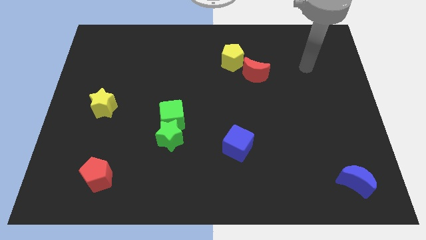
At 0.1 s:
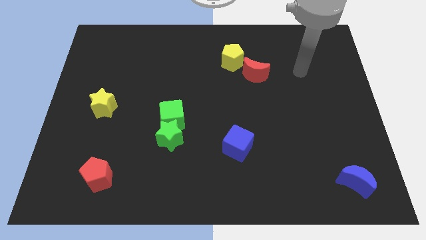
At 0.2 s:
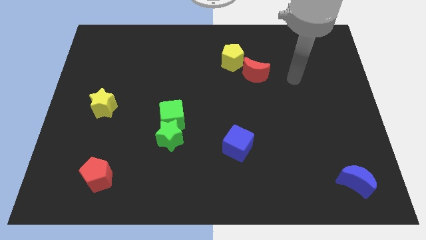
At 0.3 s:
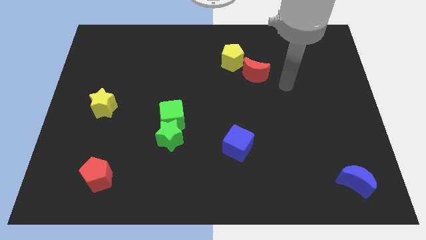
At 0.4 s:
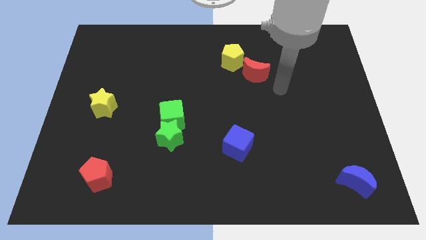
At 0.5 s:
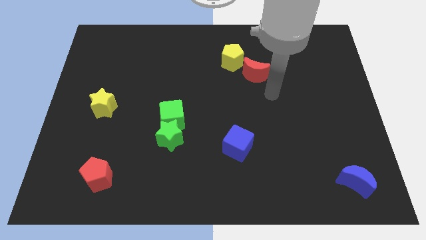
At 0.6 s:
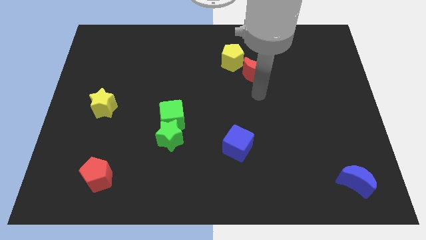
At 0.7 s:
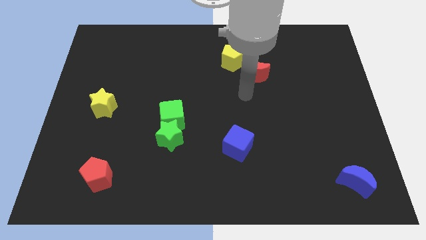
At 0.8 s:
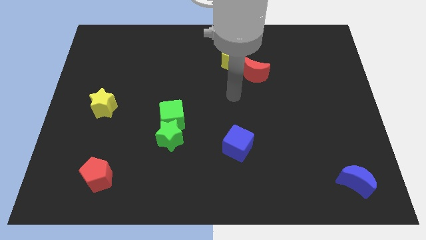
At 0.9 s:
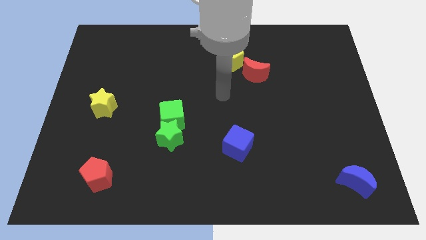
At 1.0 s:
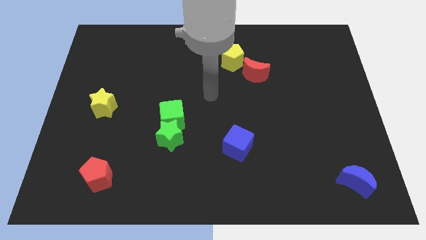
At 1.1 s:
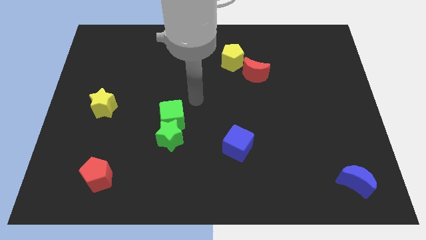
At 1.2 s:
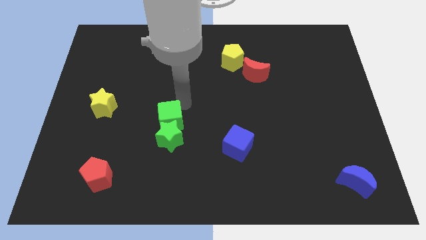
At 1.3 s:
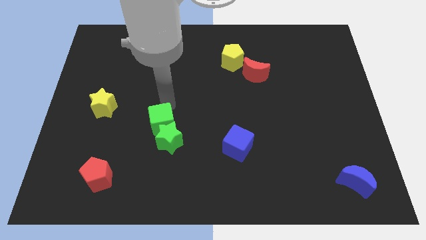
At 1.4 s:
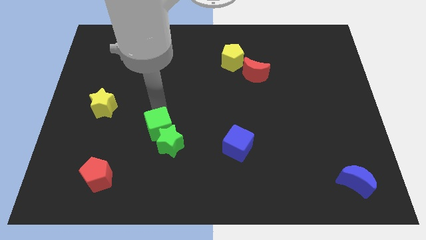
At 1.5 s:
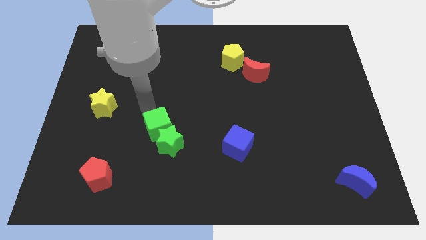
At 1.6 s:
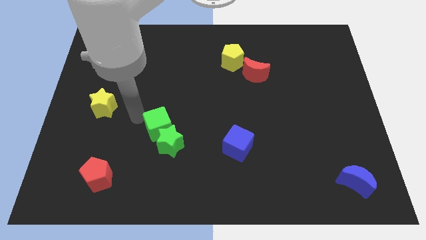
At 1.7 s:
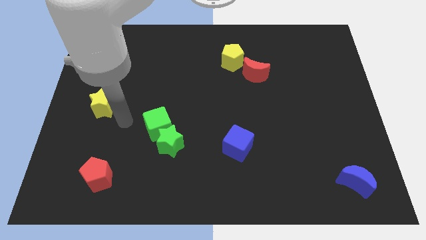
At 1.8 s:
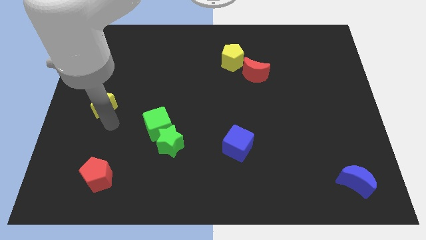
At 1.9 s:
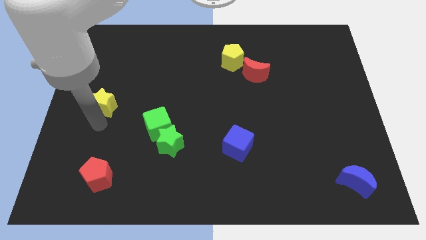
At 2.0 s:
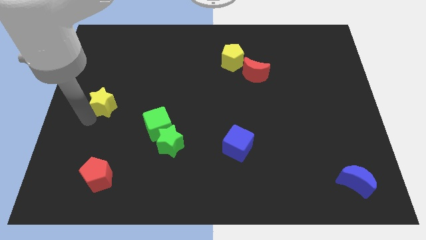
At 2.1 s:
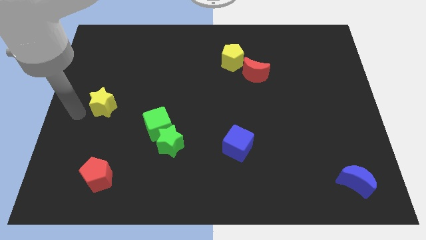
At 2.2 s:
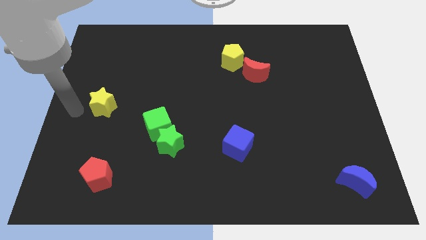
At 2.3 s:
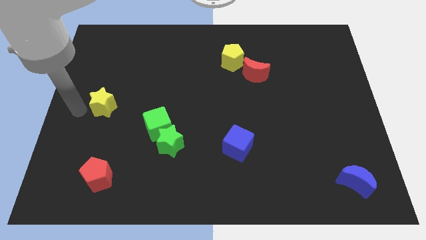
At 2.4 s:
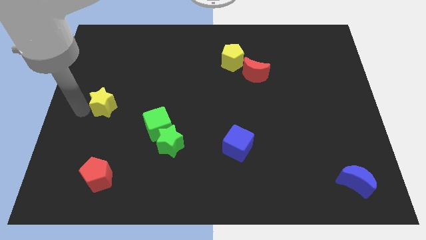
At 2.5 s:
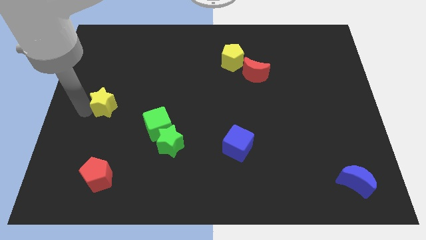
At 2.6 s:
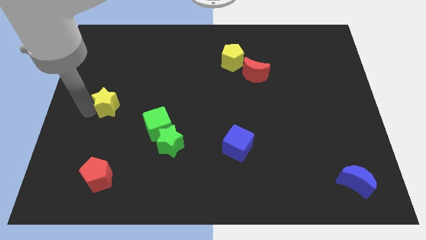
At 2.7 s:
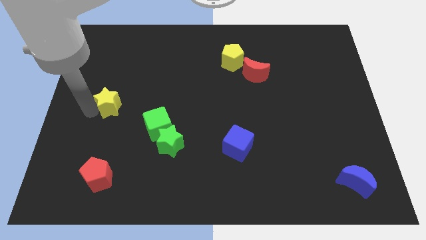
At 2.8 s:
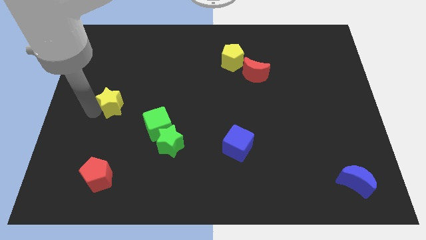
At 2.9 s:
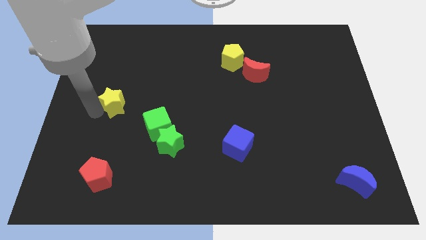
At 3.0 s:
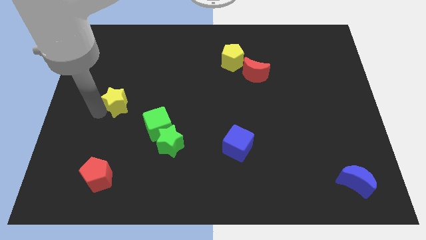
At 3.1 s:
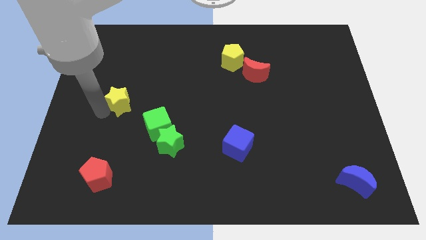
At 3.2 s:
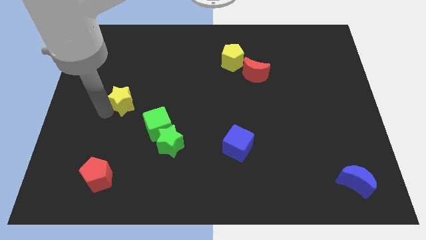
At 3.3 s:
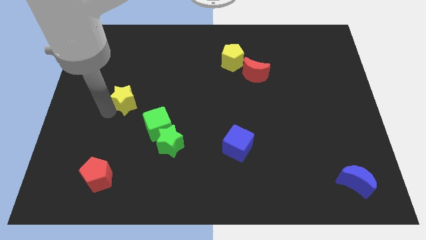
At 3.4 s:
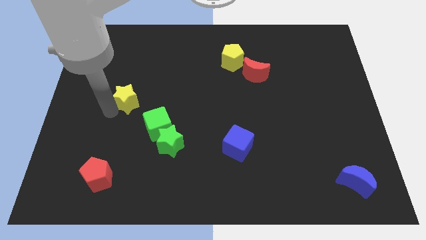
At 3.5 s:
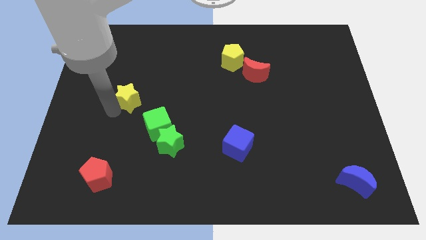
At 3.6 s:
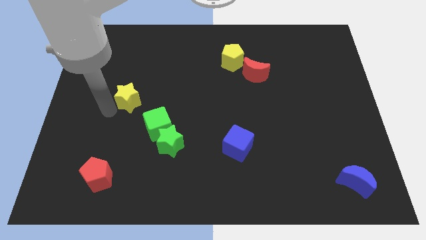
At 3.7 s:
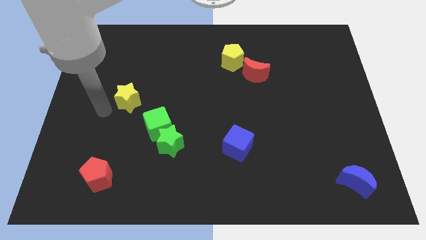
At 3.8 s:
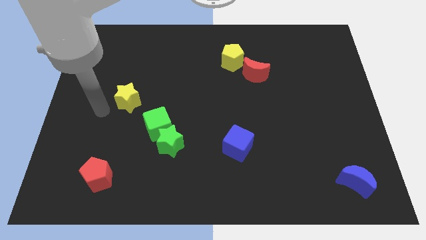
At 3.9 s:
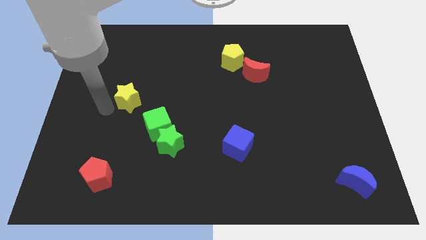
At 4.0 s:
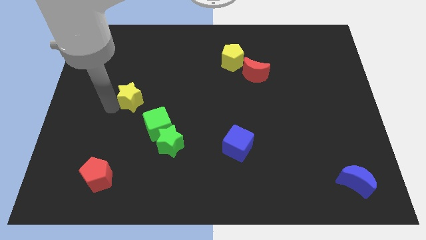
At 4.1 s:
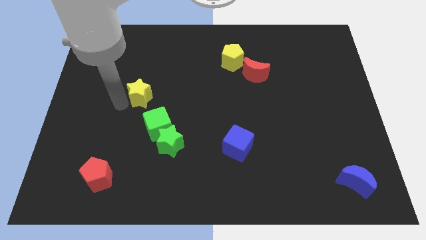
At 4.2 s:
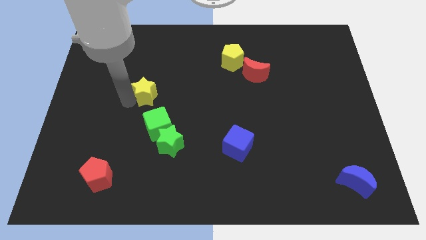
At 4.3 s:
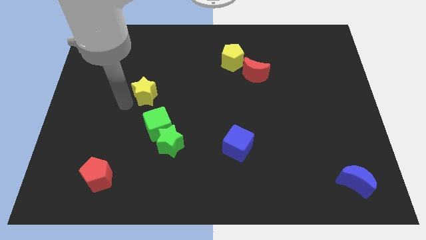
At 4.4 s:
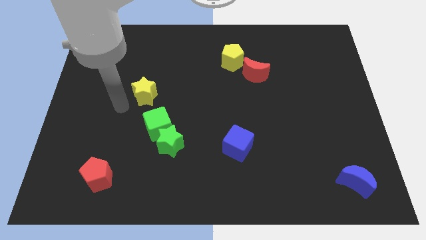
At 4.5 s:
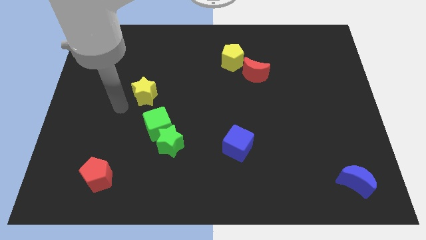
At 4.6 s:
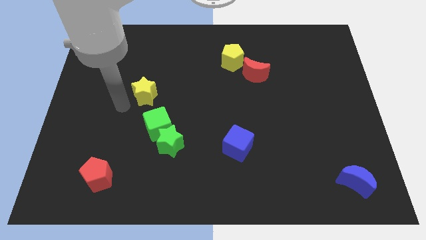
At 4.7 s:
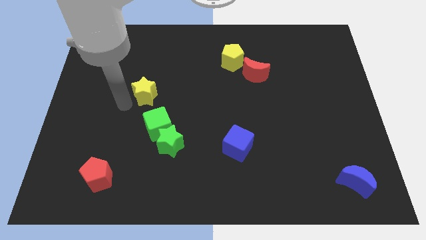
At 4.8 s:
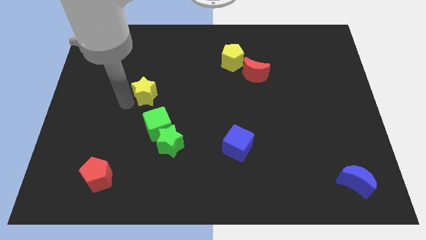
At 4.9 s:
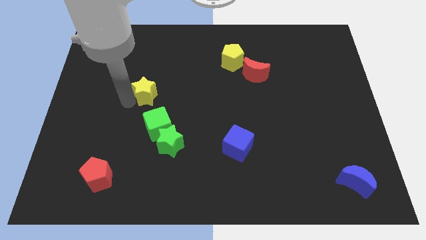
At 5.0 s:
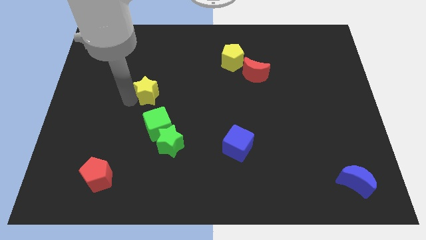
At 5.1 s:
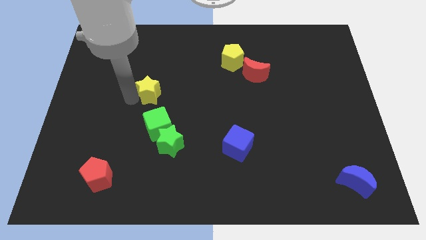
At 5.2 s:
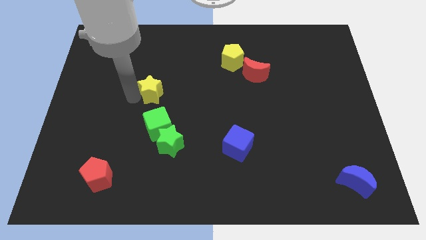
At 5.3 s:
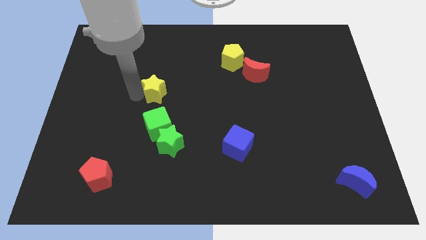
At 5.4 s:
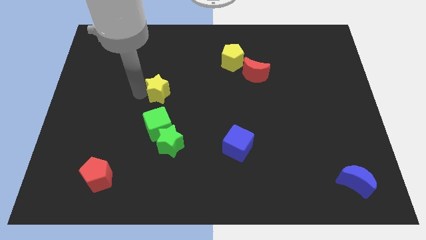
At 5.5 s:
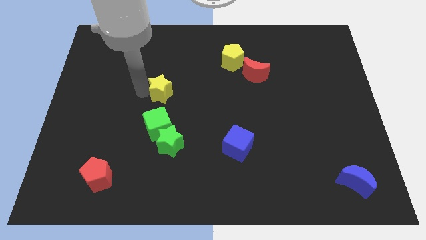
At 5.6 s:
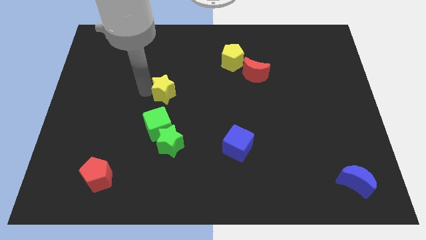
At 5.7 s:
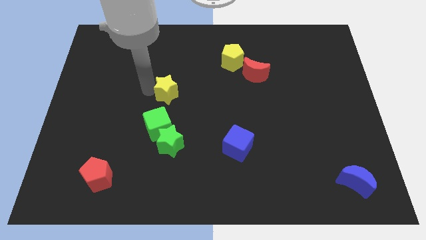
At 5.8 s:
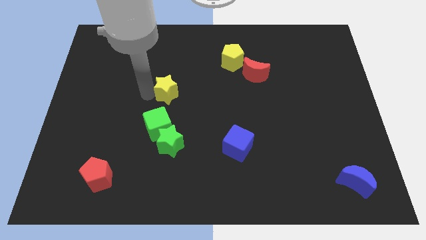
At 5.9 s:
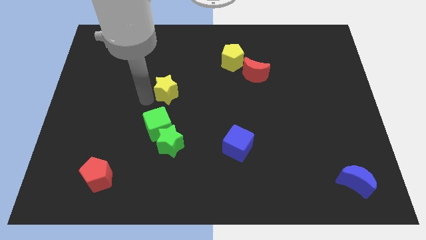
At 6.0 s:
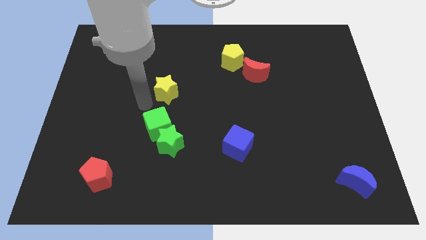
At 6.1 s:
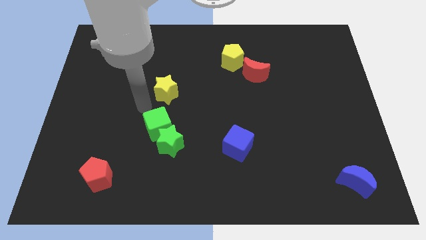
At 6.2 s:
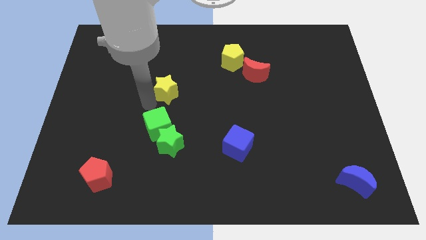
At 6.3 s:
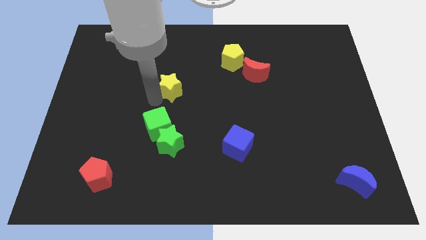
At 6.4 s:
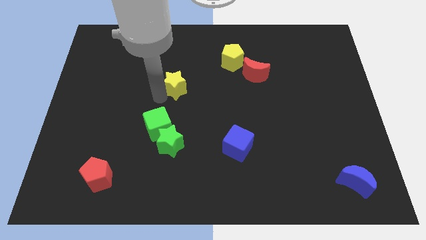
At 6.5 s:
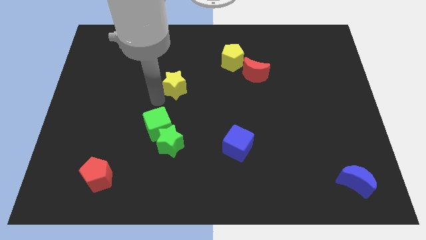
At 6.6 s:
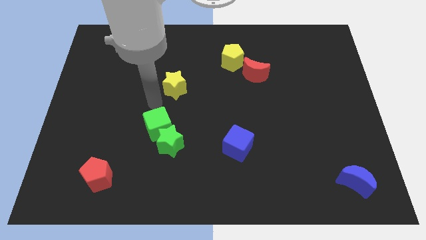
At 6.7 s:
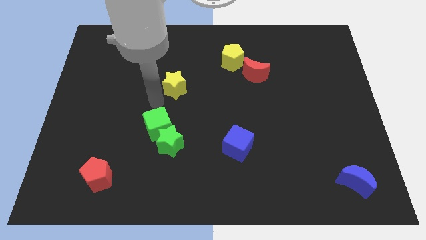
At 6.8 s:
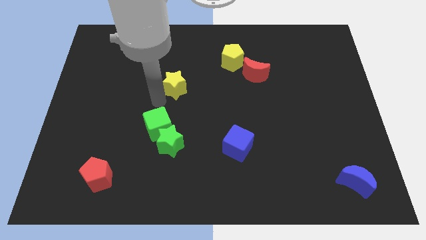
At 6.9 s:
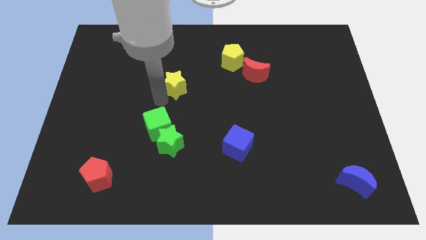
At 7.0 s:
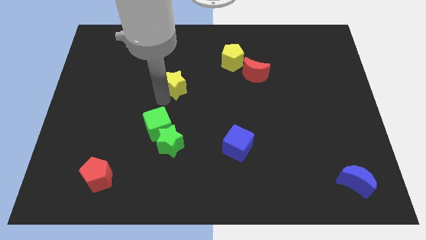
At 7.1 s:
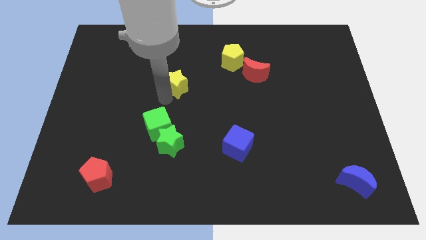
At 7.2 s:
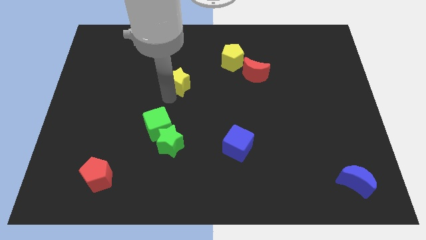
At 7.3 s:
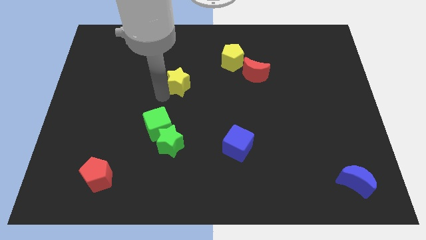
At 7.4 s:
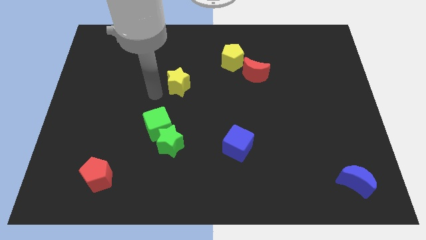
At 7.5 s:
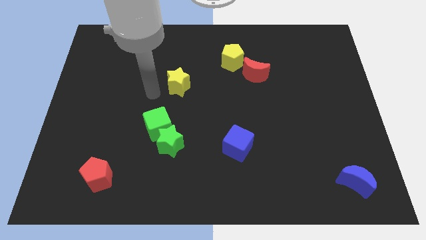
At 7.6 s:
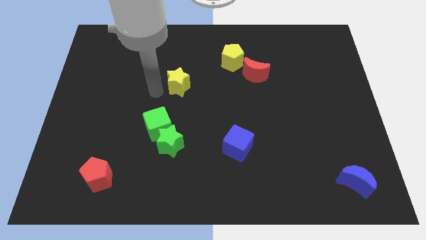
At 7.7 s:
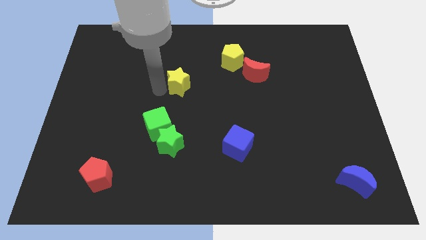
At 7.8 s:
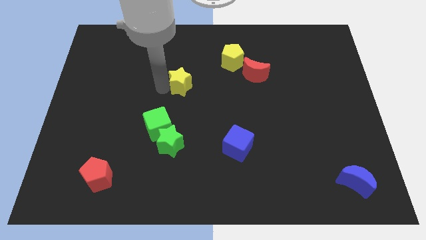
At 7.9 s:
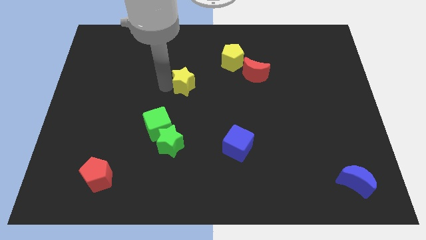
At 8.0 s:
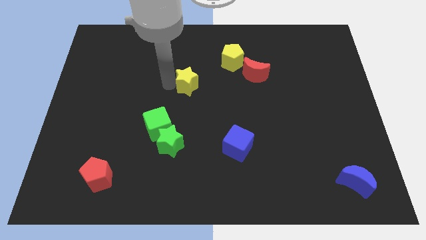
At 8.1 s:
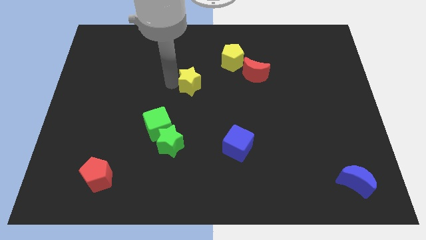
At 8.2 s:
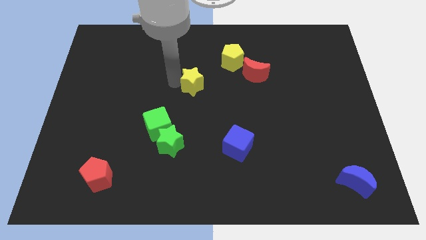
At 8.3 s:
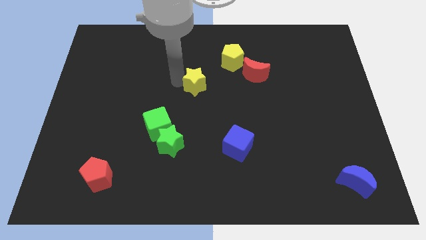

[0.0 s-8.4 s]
slide the yellow star to the bottom left of the yellow pentagon
